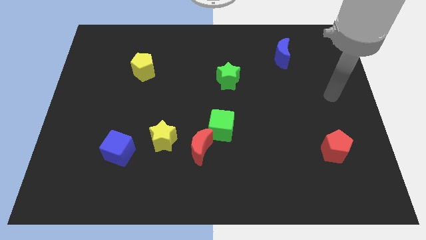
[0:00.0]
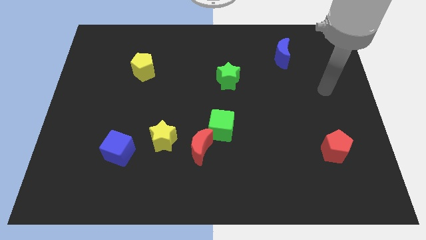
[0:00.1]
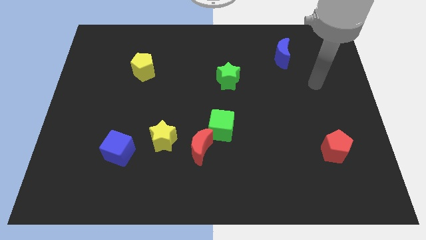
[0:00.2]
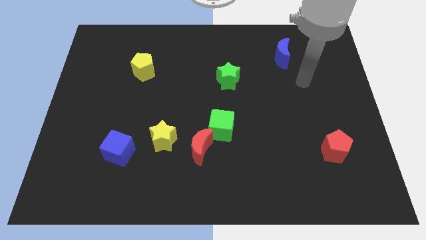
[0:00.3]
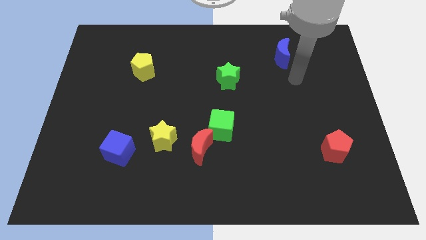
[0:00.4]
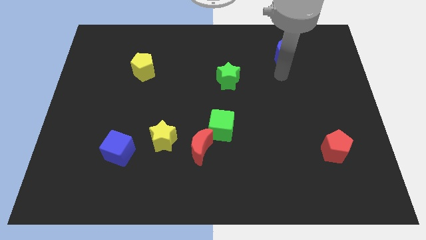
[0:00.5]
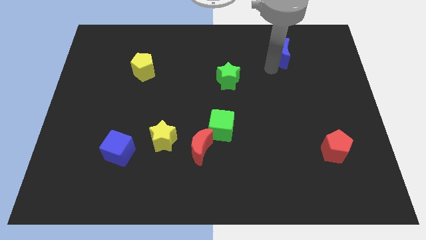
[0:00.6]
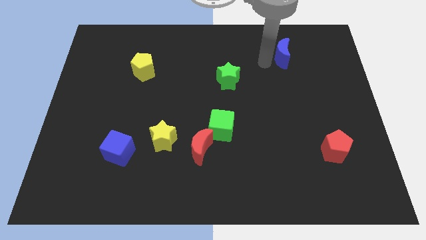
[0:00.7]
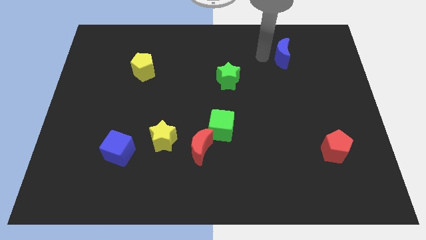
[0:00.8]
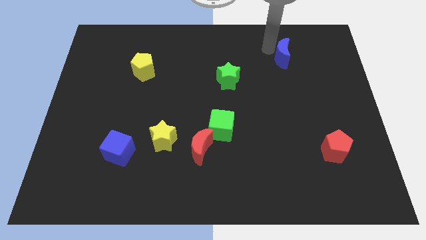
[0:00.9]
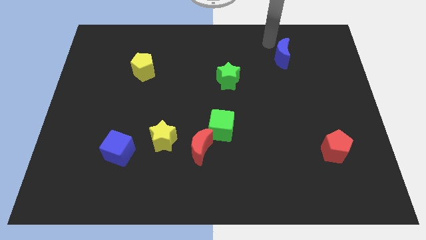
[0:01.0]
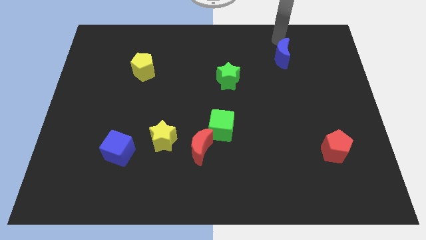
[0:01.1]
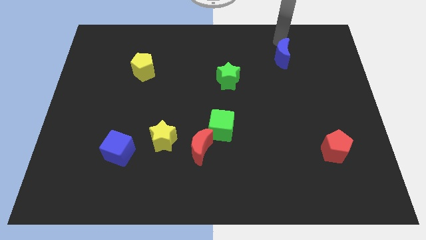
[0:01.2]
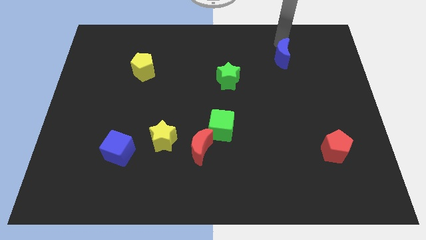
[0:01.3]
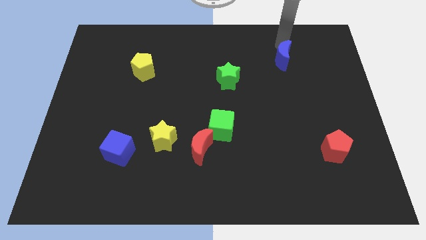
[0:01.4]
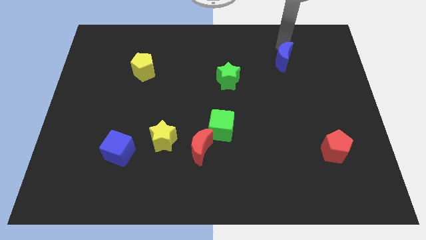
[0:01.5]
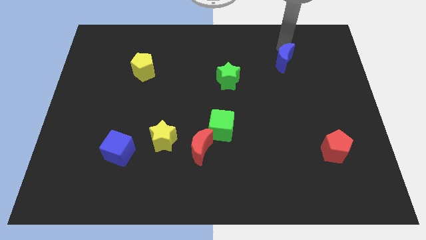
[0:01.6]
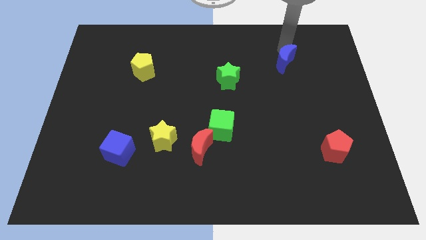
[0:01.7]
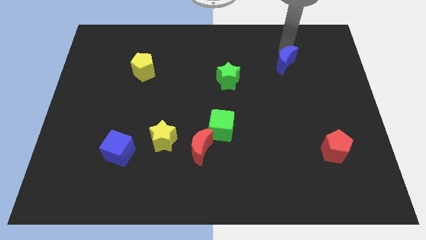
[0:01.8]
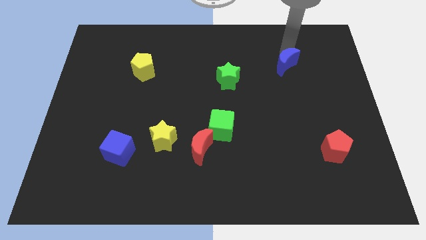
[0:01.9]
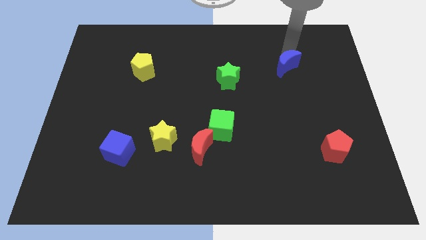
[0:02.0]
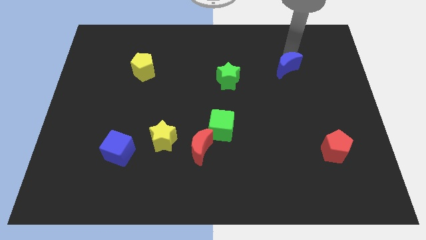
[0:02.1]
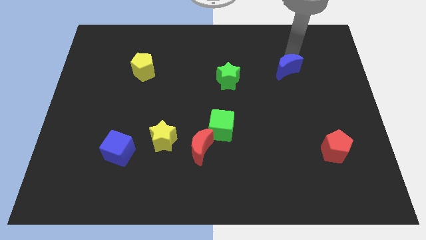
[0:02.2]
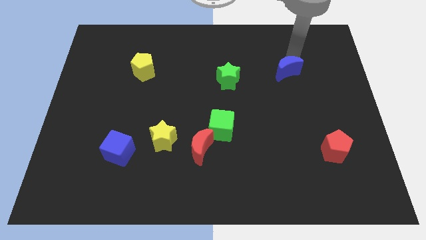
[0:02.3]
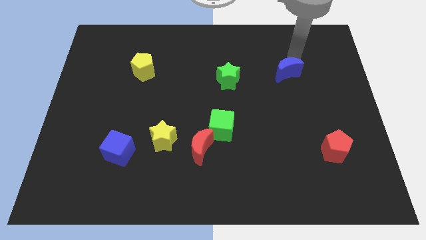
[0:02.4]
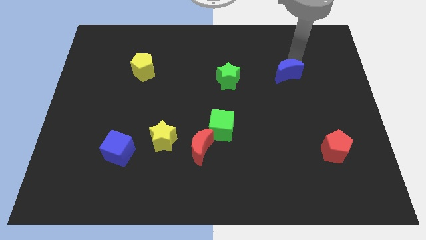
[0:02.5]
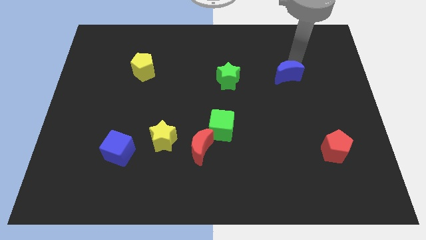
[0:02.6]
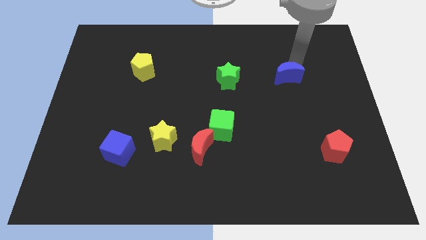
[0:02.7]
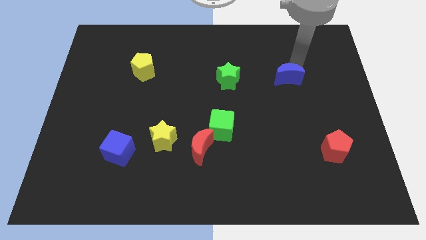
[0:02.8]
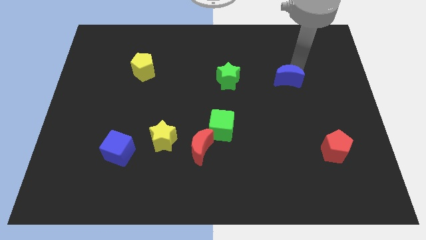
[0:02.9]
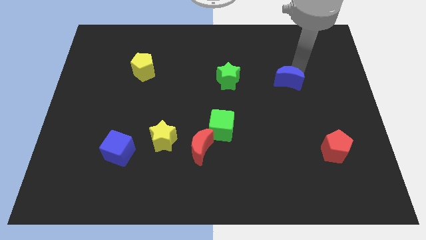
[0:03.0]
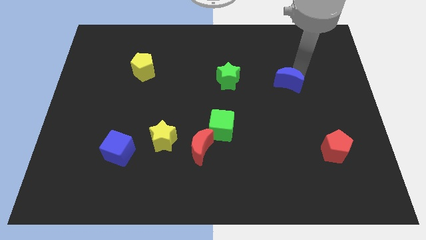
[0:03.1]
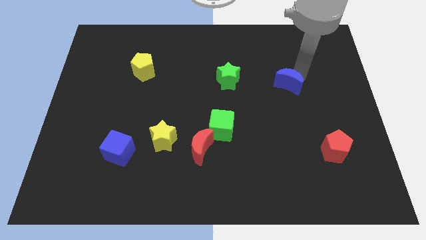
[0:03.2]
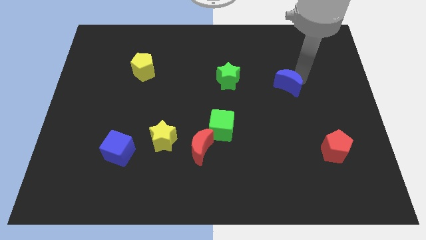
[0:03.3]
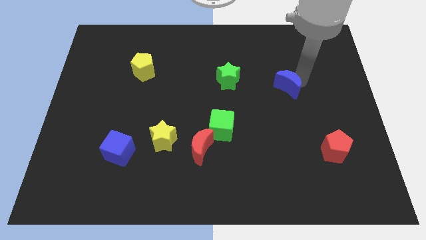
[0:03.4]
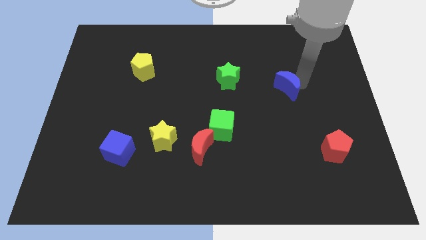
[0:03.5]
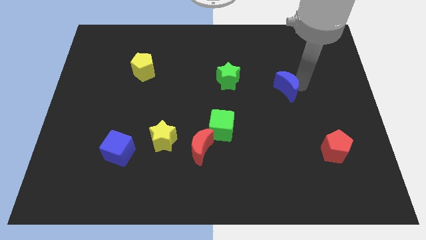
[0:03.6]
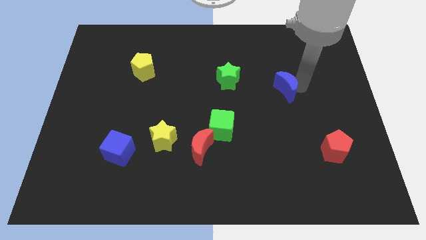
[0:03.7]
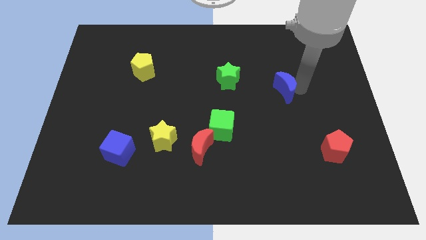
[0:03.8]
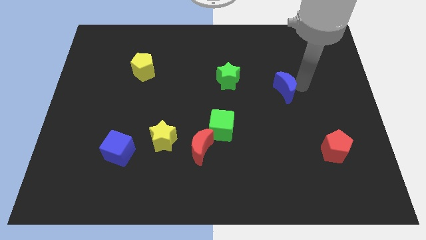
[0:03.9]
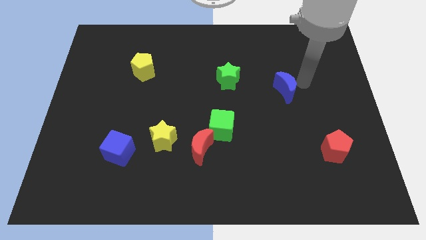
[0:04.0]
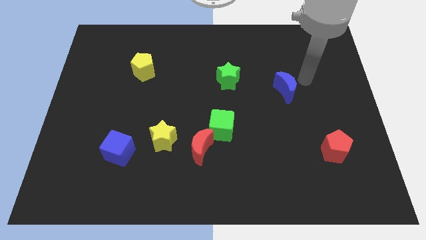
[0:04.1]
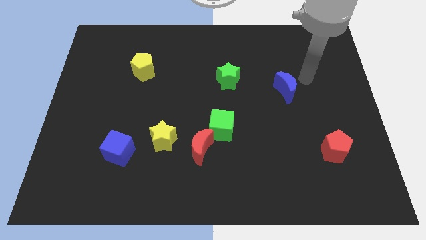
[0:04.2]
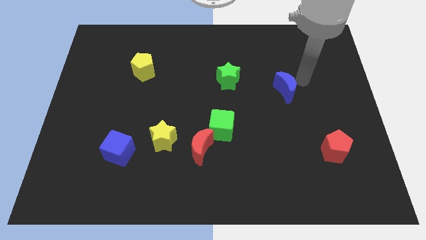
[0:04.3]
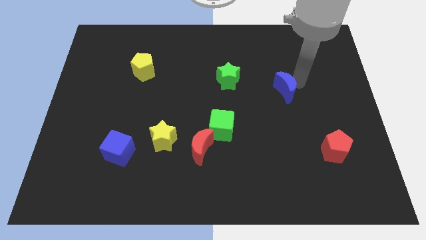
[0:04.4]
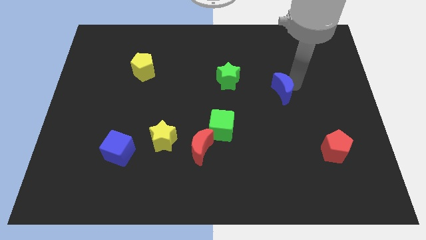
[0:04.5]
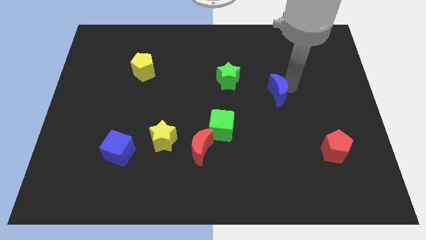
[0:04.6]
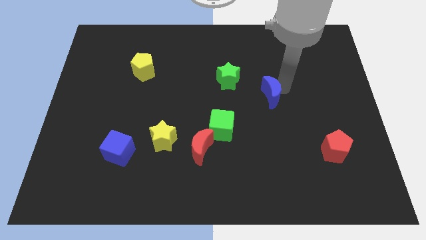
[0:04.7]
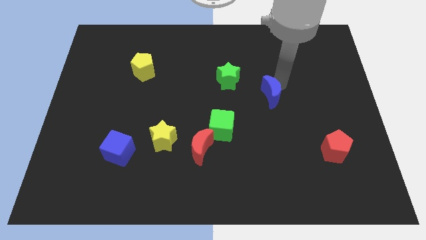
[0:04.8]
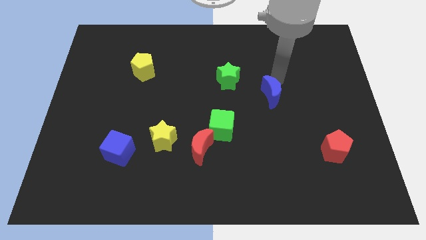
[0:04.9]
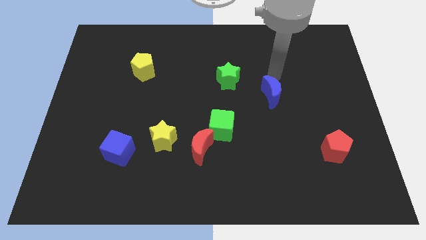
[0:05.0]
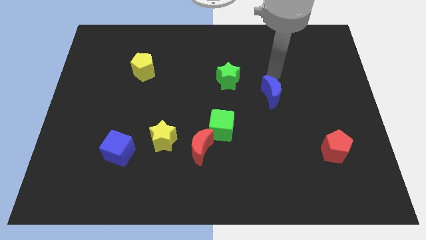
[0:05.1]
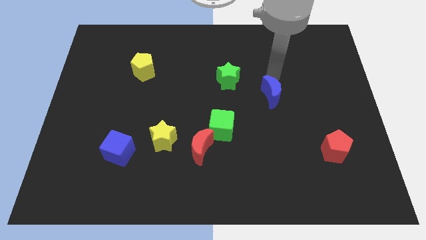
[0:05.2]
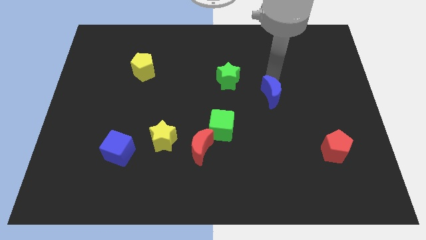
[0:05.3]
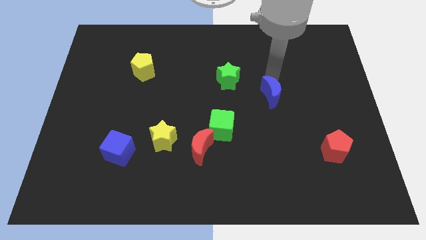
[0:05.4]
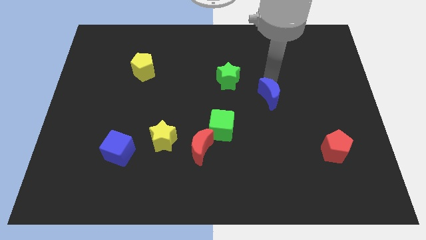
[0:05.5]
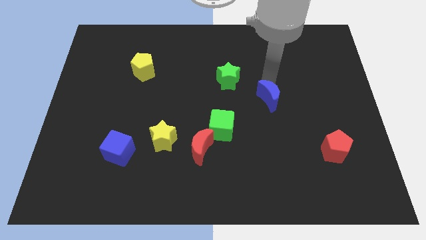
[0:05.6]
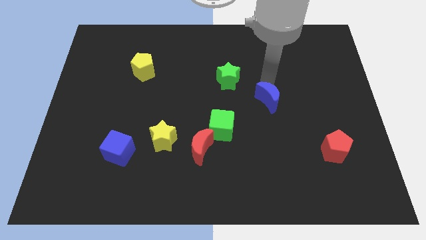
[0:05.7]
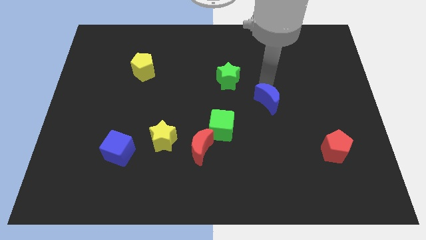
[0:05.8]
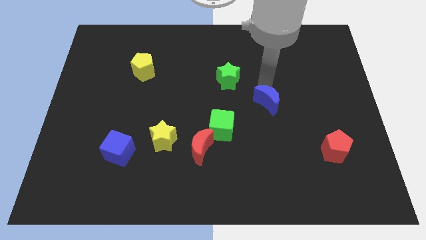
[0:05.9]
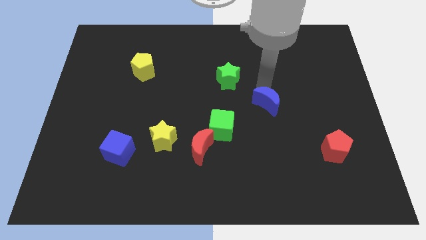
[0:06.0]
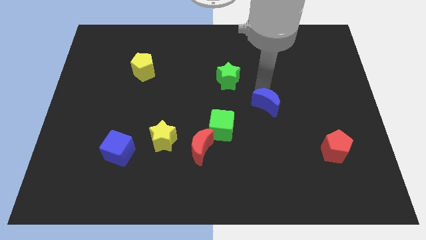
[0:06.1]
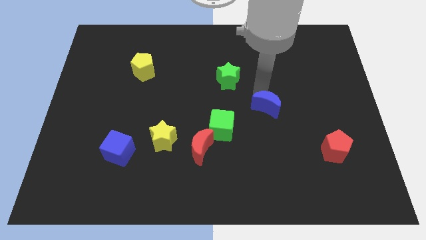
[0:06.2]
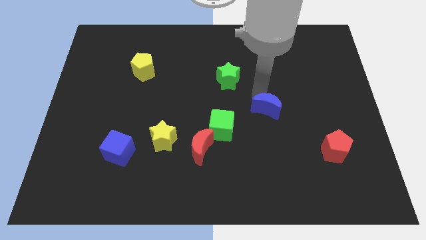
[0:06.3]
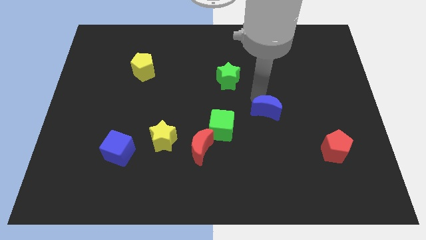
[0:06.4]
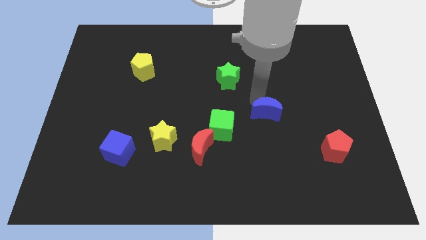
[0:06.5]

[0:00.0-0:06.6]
move the blue moon right of the green cube

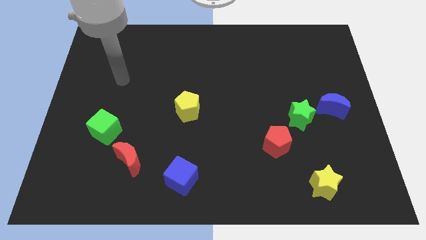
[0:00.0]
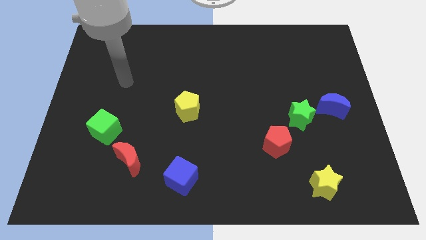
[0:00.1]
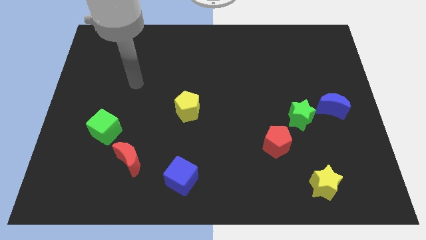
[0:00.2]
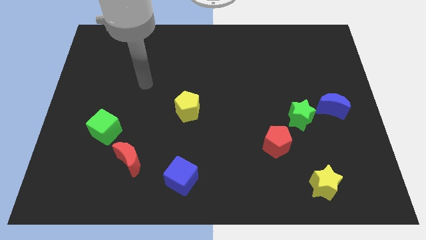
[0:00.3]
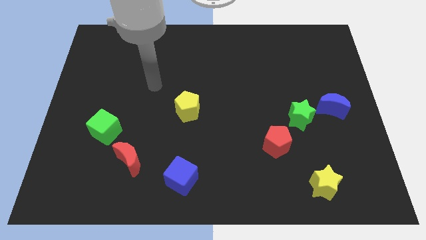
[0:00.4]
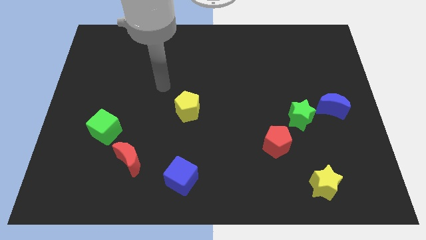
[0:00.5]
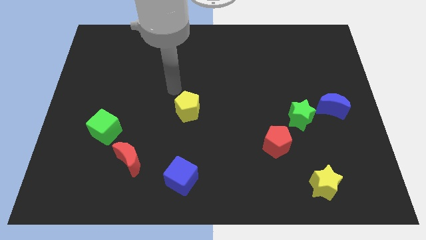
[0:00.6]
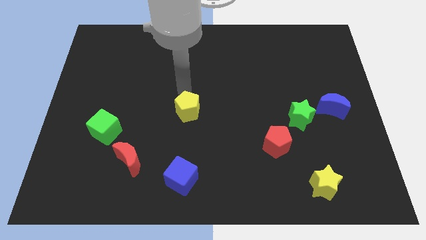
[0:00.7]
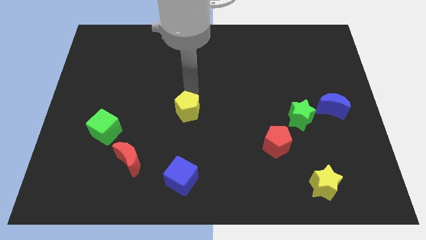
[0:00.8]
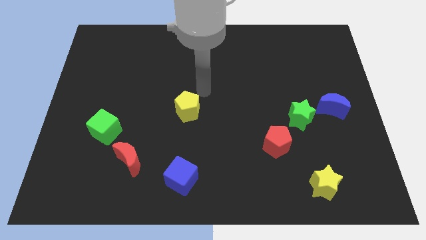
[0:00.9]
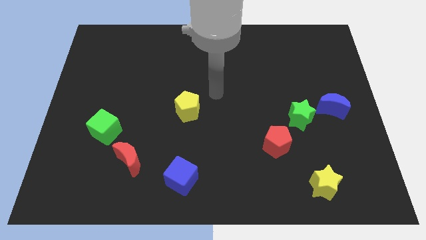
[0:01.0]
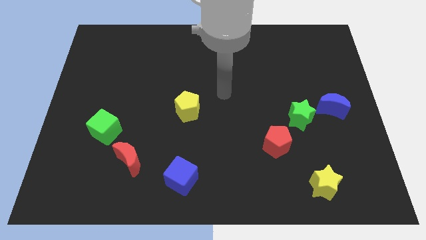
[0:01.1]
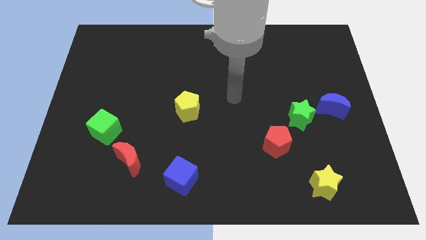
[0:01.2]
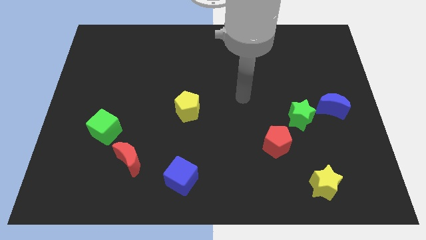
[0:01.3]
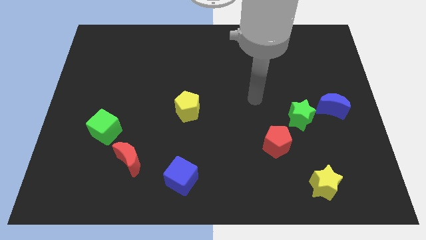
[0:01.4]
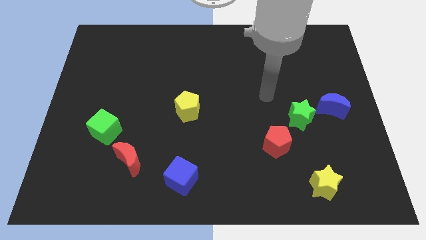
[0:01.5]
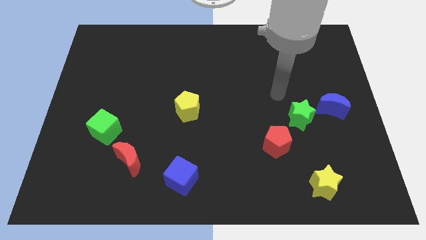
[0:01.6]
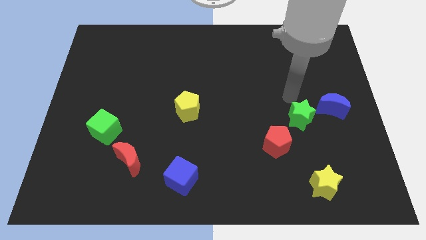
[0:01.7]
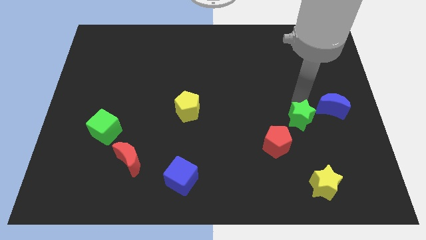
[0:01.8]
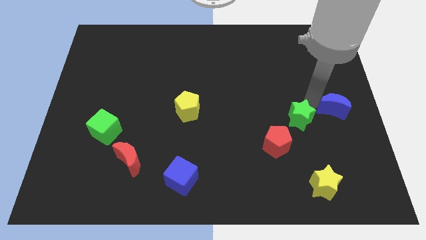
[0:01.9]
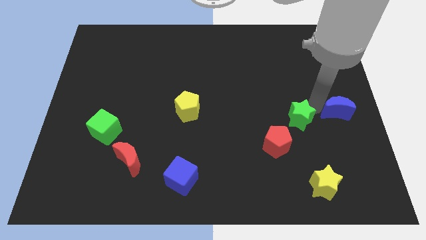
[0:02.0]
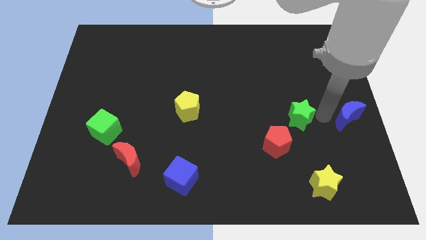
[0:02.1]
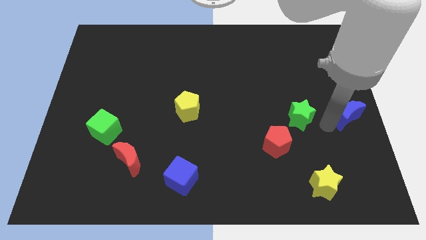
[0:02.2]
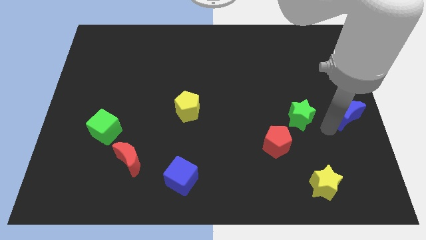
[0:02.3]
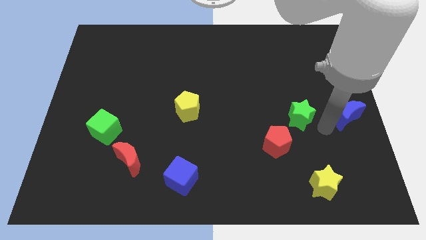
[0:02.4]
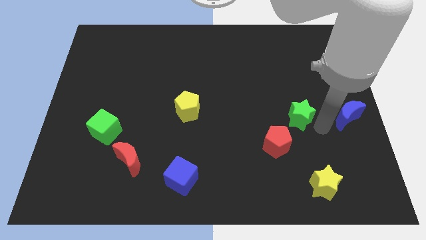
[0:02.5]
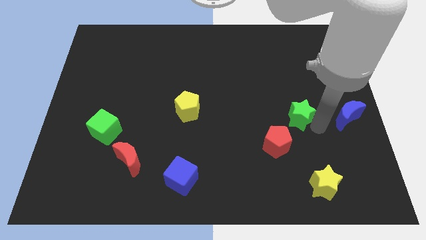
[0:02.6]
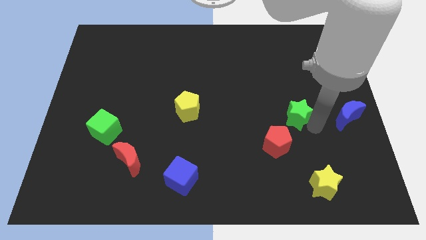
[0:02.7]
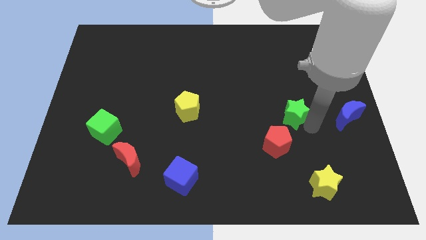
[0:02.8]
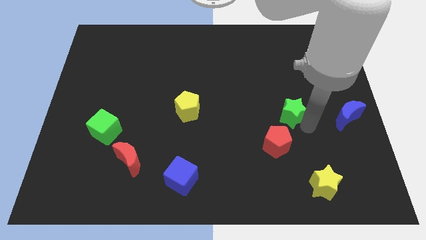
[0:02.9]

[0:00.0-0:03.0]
move the green star to the top of the red pentagon
